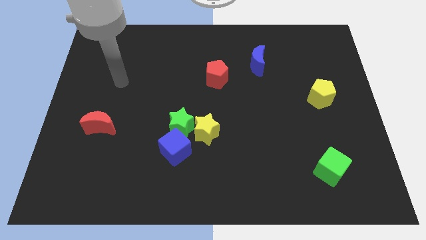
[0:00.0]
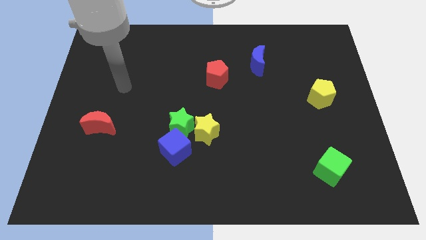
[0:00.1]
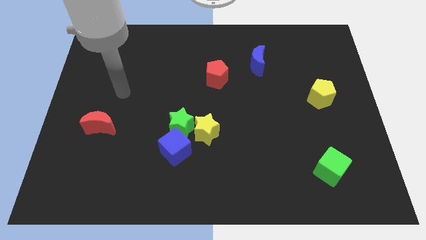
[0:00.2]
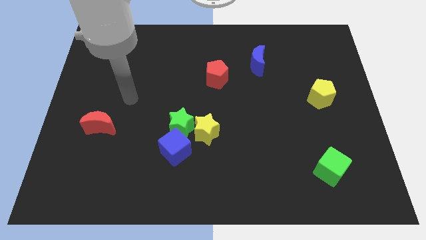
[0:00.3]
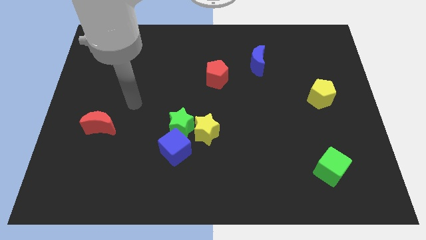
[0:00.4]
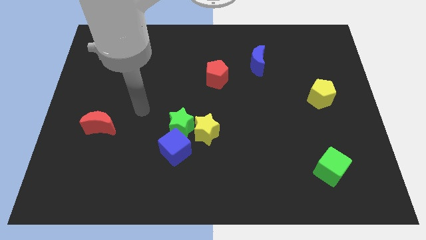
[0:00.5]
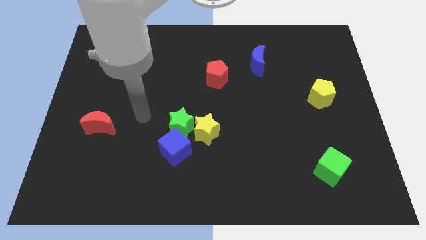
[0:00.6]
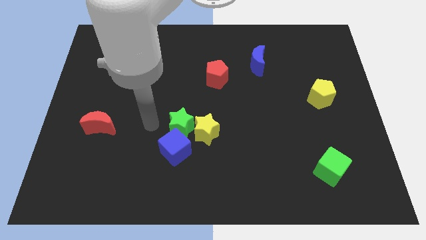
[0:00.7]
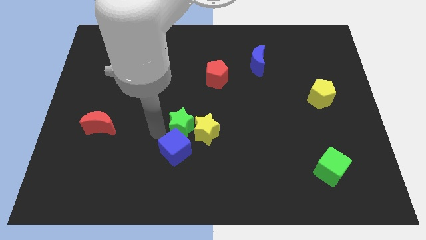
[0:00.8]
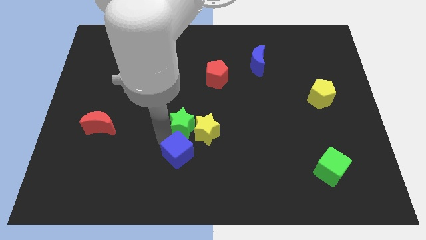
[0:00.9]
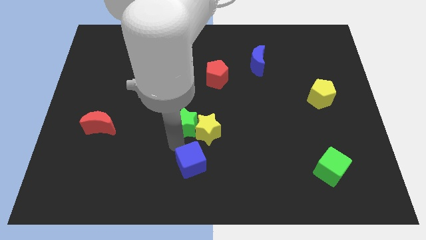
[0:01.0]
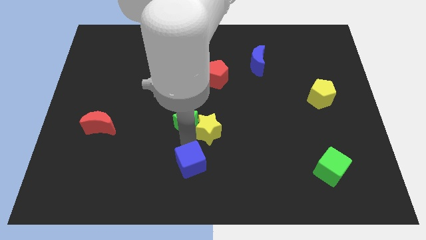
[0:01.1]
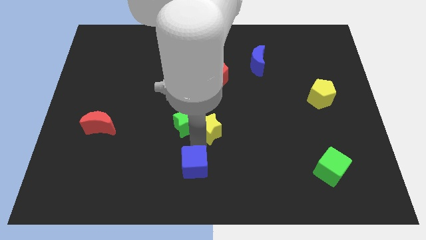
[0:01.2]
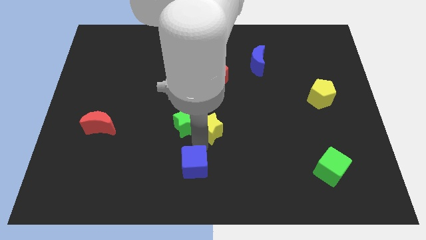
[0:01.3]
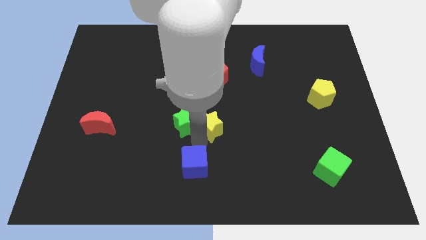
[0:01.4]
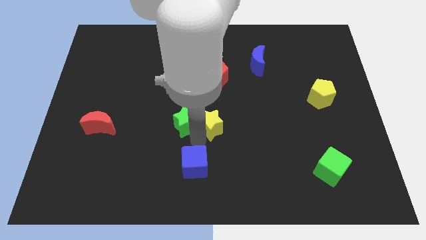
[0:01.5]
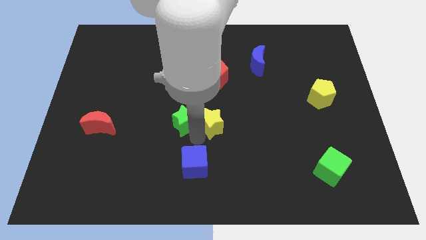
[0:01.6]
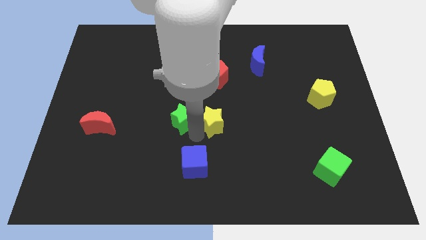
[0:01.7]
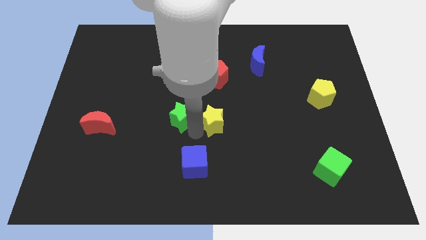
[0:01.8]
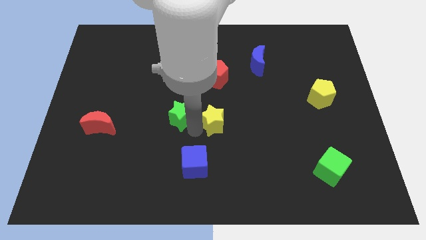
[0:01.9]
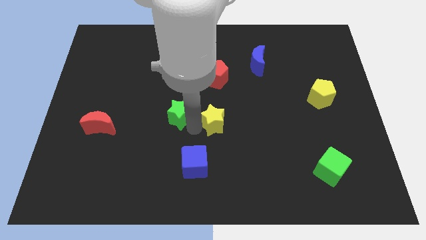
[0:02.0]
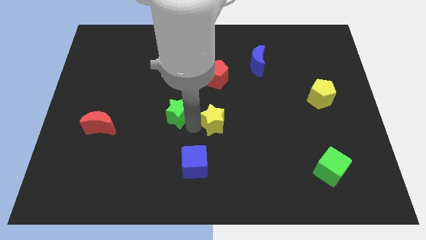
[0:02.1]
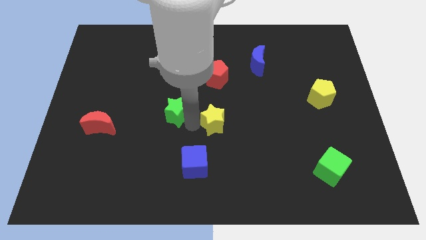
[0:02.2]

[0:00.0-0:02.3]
separate the green star from the yellow star and blue cube

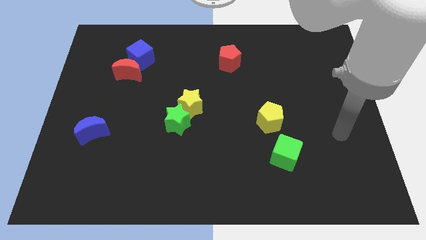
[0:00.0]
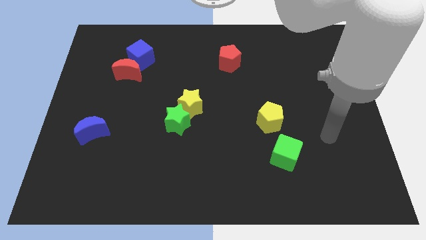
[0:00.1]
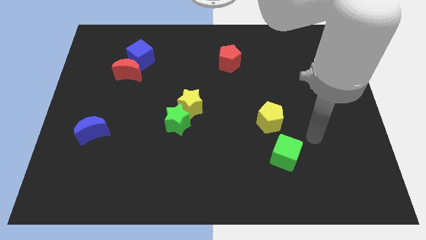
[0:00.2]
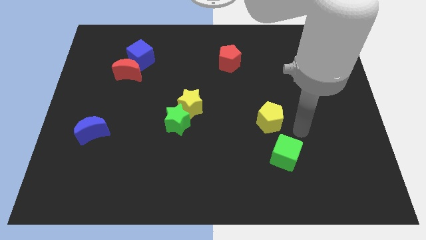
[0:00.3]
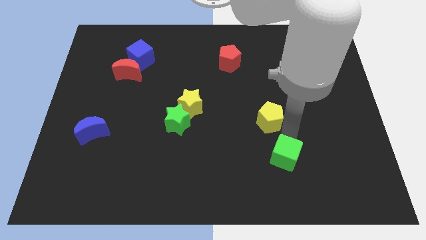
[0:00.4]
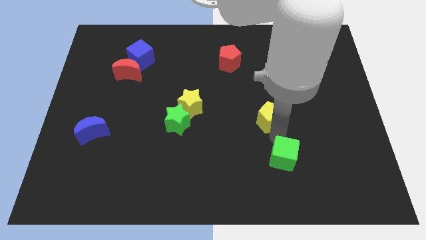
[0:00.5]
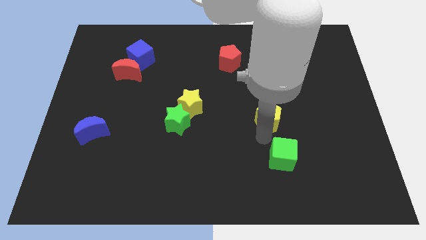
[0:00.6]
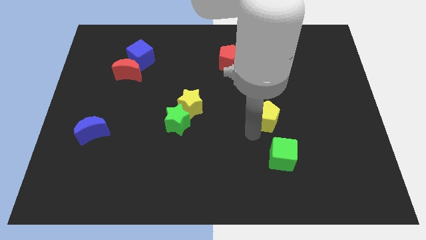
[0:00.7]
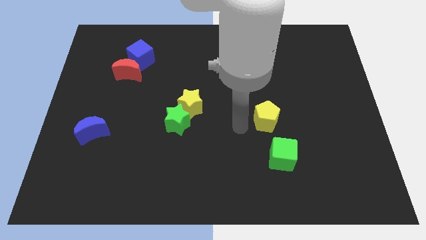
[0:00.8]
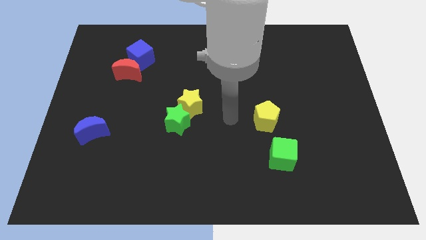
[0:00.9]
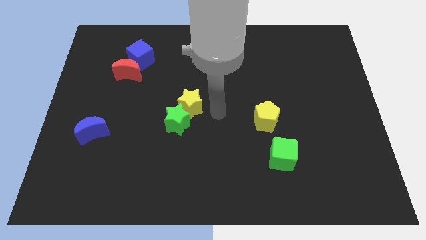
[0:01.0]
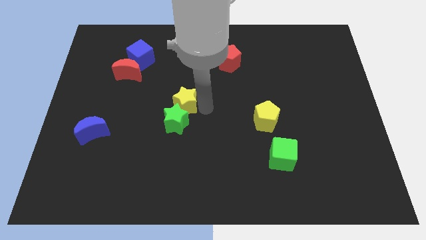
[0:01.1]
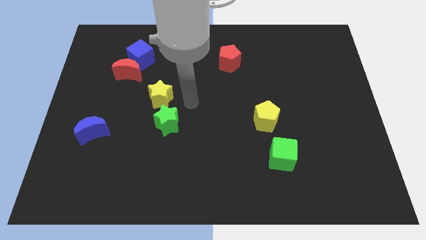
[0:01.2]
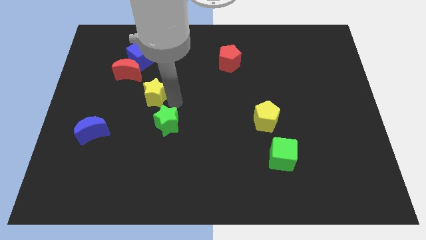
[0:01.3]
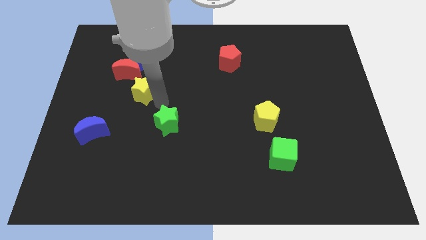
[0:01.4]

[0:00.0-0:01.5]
move the green star away from the yellow star

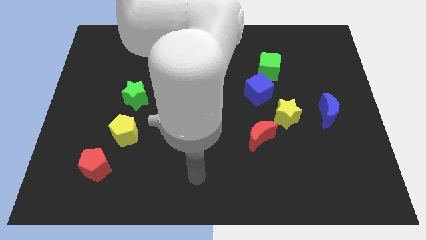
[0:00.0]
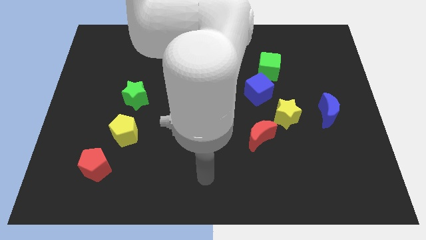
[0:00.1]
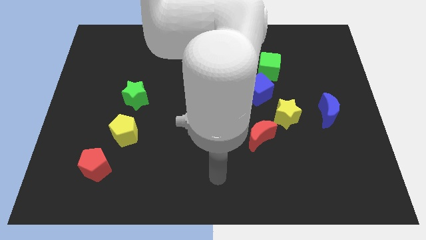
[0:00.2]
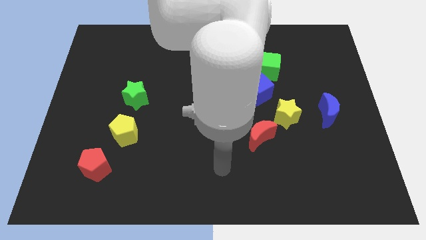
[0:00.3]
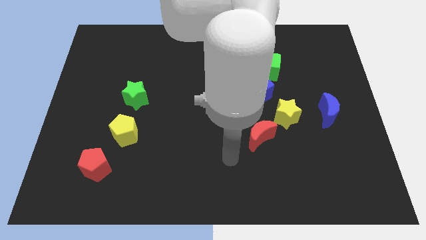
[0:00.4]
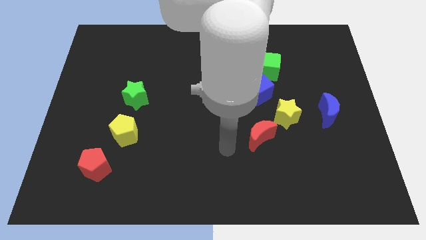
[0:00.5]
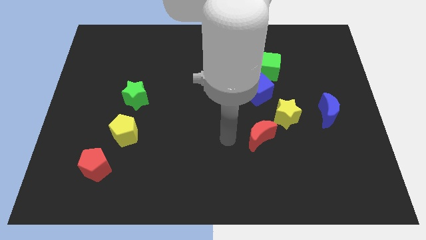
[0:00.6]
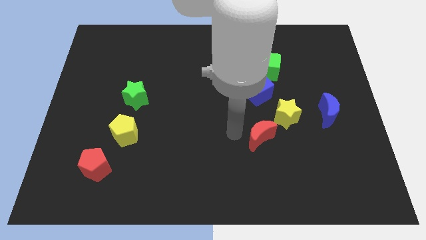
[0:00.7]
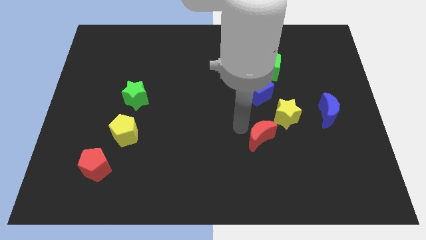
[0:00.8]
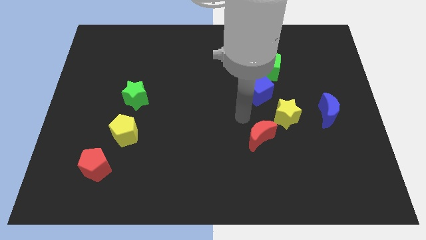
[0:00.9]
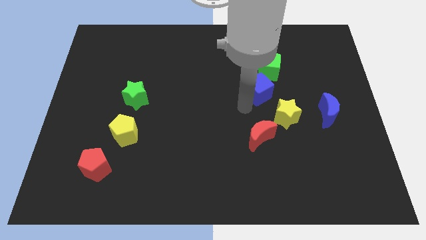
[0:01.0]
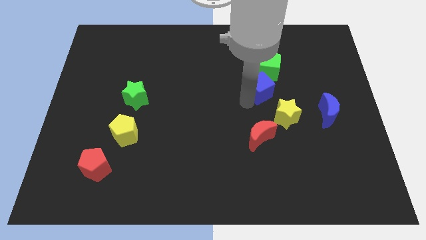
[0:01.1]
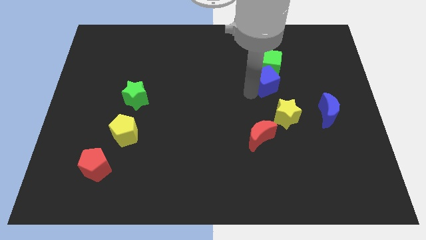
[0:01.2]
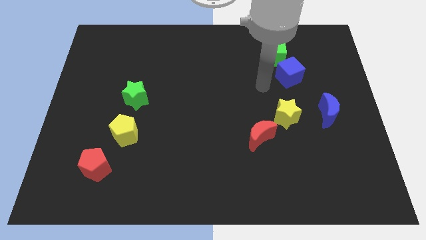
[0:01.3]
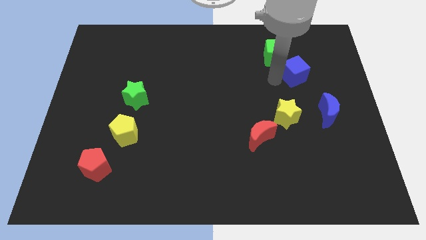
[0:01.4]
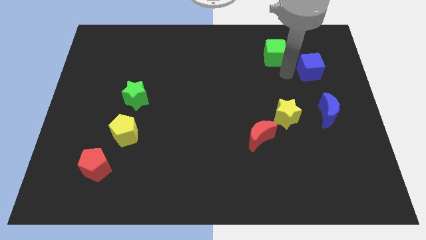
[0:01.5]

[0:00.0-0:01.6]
pull the green cube apart from the blue cube

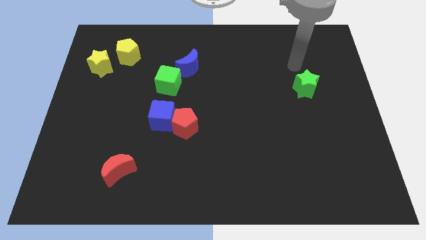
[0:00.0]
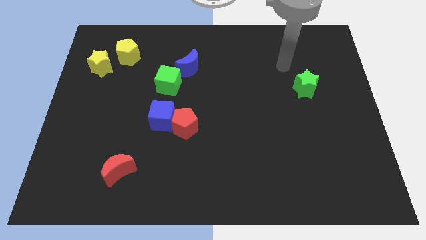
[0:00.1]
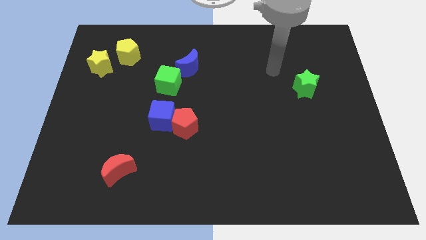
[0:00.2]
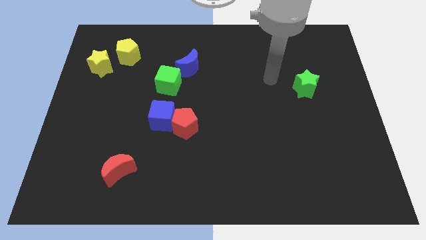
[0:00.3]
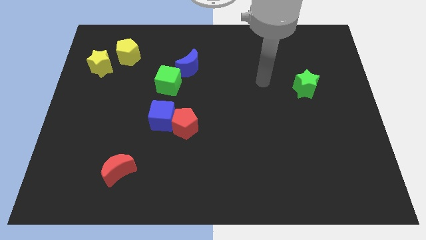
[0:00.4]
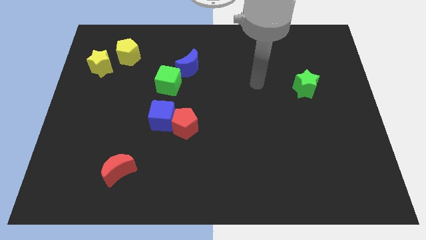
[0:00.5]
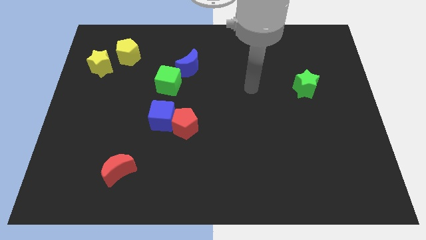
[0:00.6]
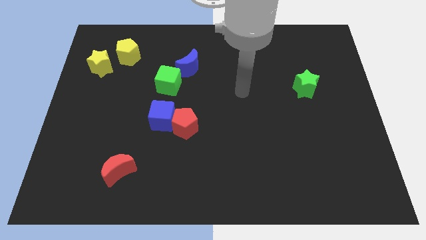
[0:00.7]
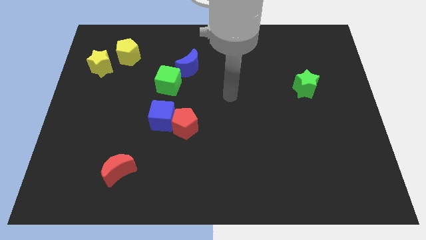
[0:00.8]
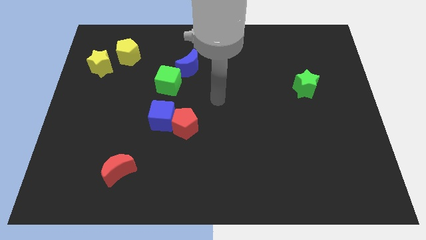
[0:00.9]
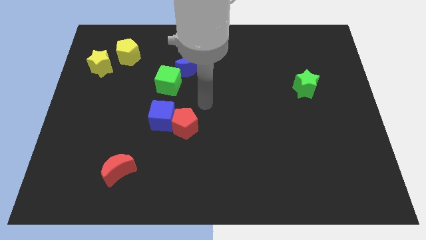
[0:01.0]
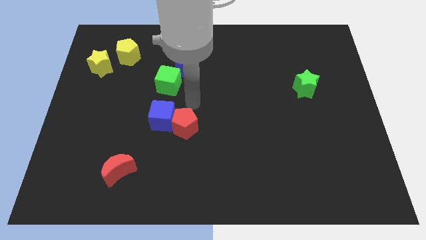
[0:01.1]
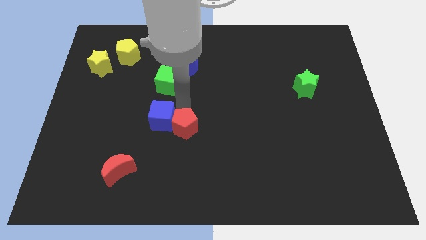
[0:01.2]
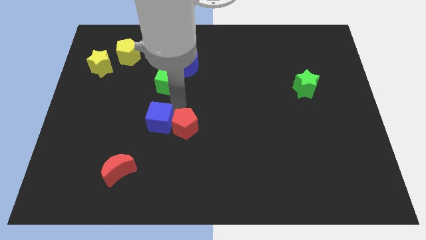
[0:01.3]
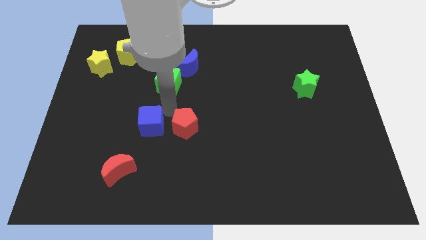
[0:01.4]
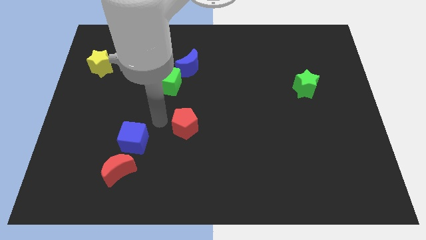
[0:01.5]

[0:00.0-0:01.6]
pull the red pentagon apart from the blue cube

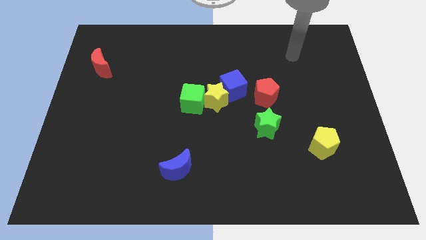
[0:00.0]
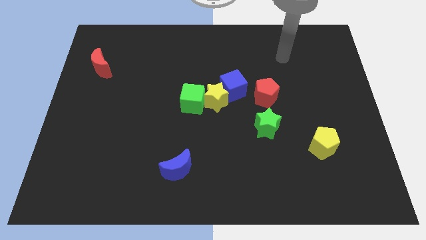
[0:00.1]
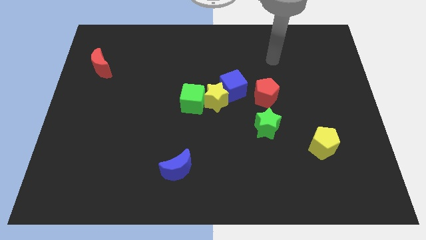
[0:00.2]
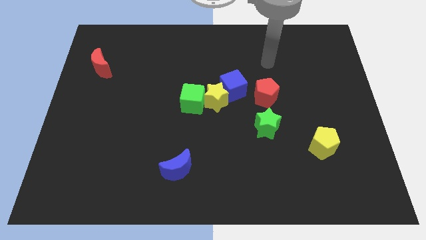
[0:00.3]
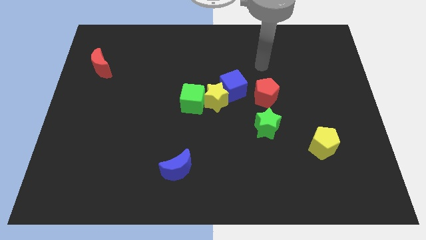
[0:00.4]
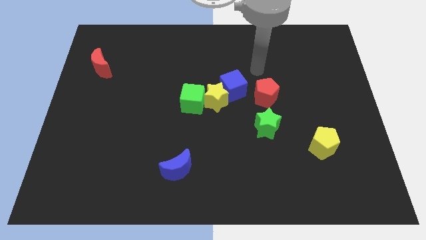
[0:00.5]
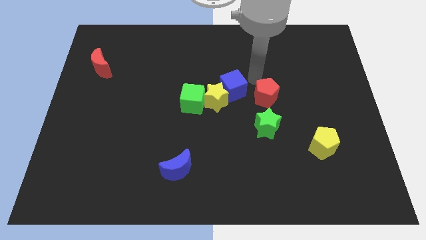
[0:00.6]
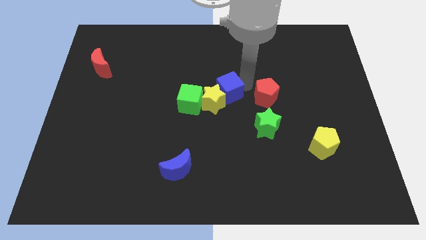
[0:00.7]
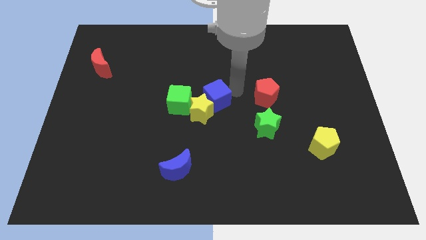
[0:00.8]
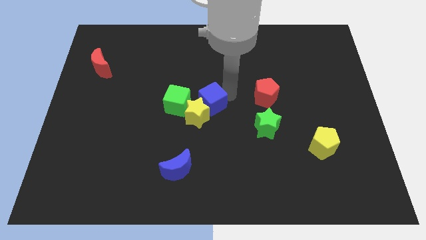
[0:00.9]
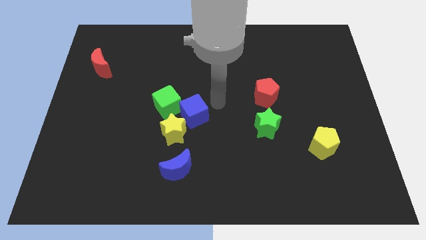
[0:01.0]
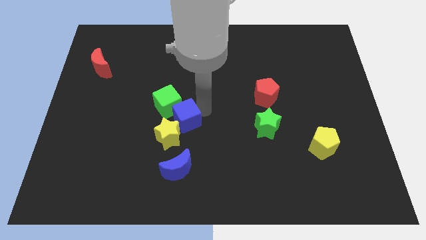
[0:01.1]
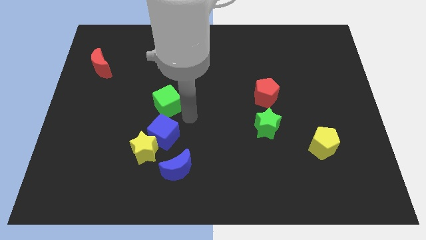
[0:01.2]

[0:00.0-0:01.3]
separate the green cube from the yellow star

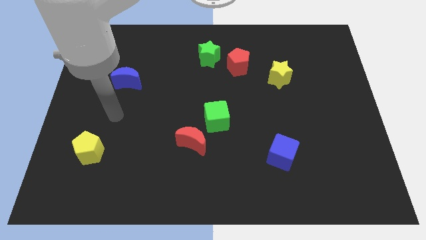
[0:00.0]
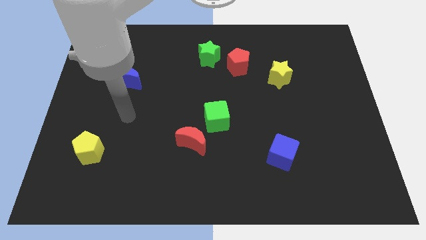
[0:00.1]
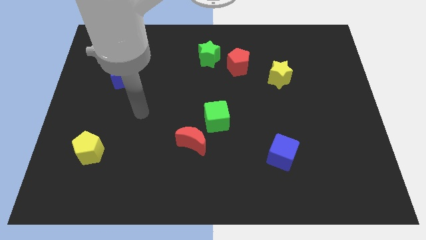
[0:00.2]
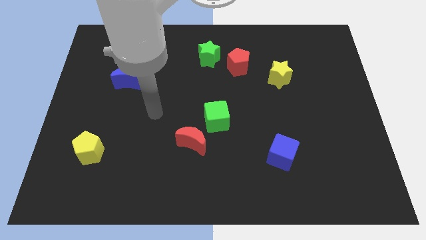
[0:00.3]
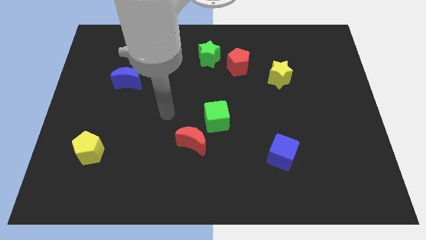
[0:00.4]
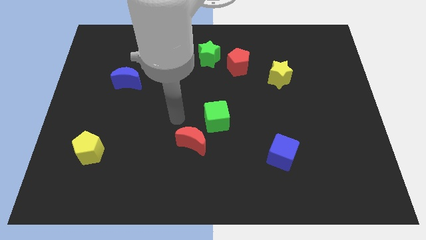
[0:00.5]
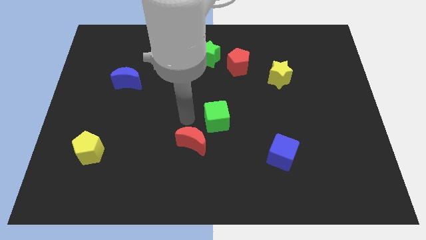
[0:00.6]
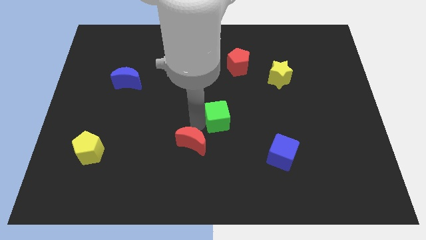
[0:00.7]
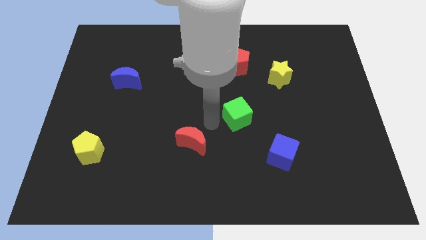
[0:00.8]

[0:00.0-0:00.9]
pull the red moon apart from the green cube
